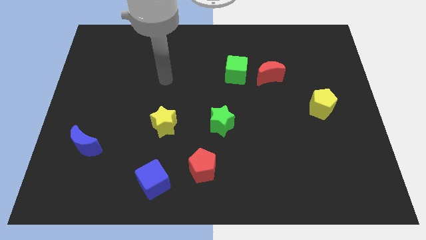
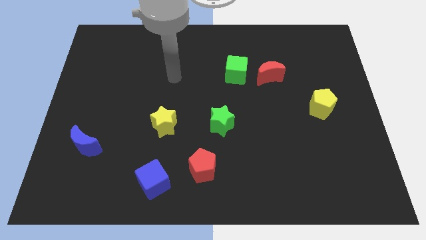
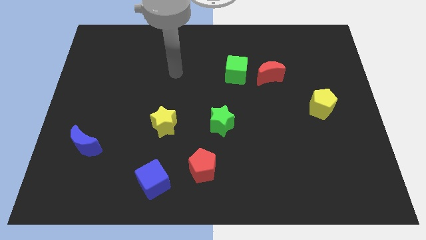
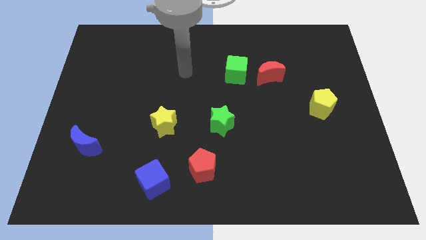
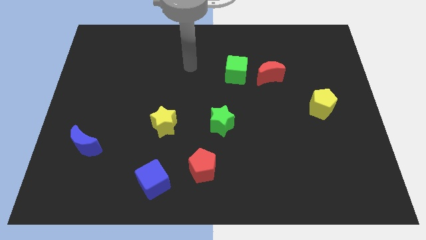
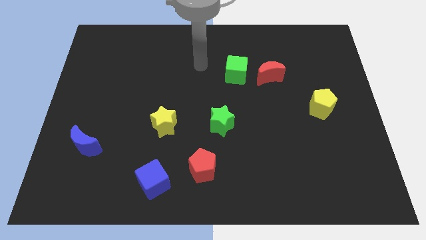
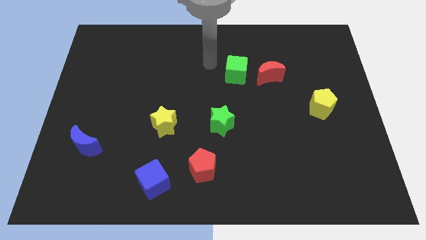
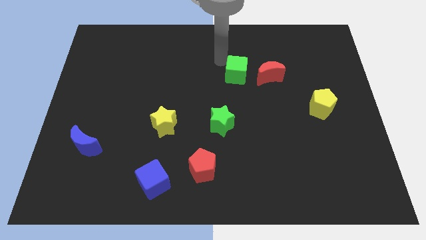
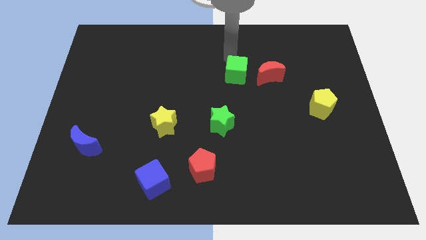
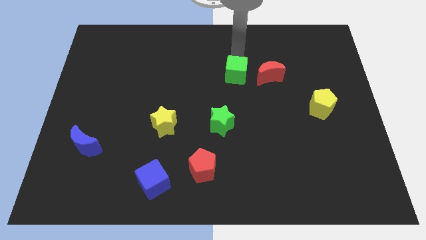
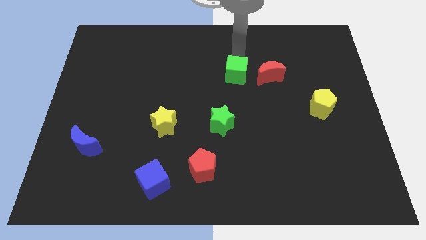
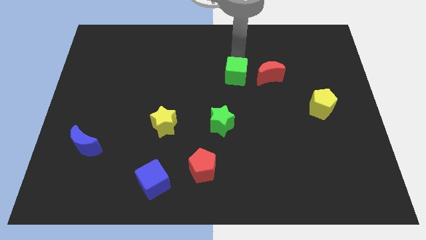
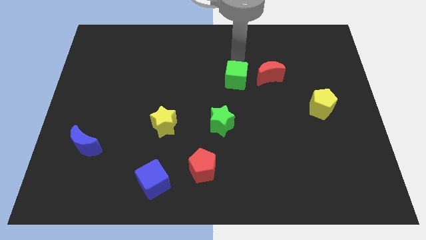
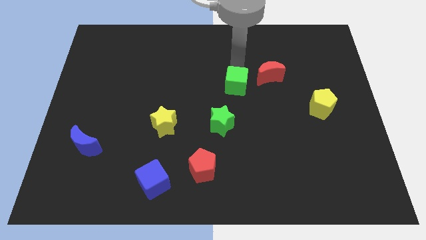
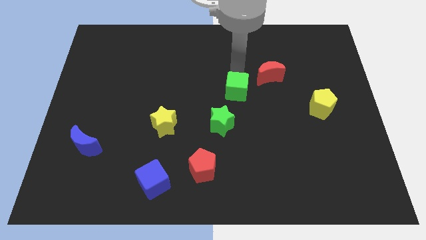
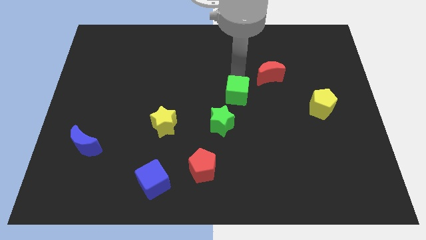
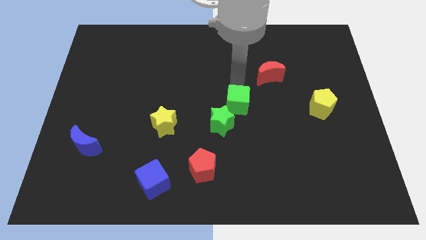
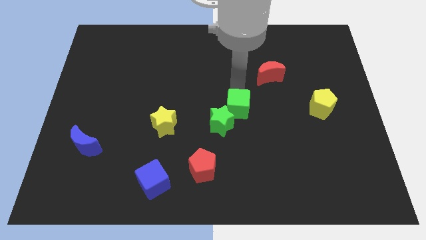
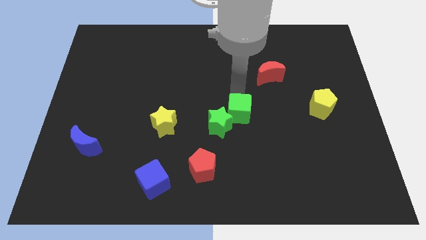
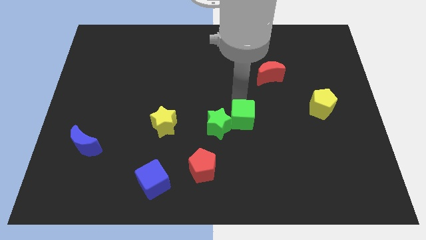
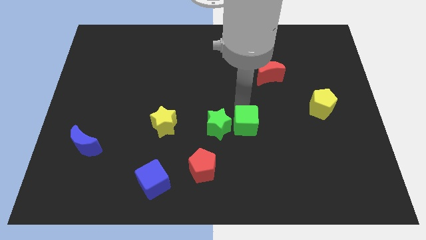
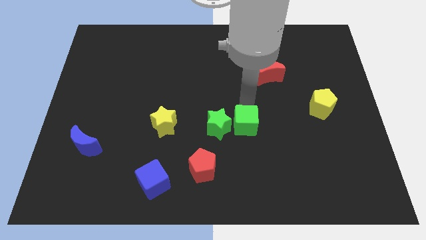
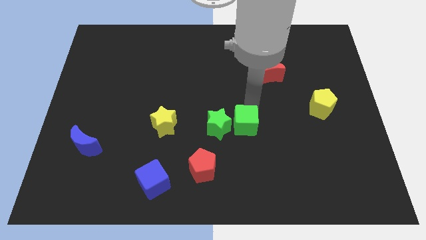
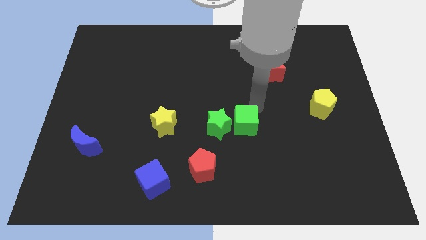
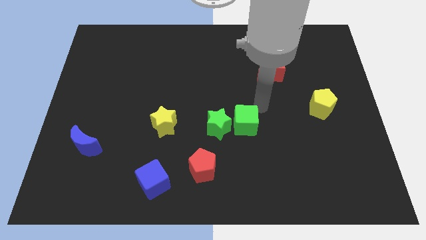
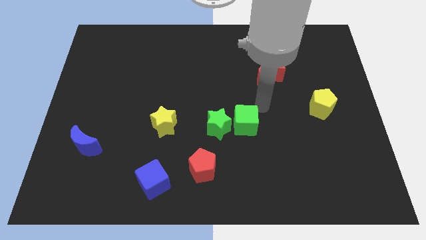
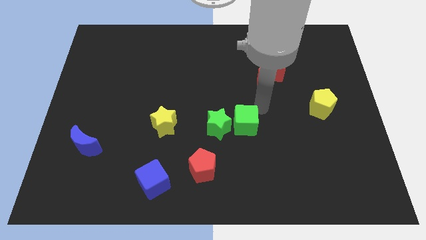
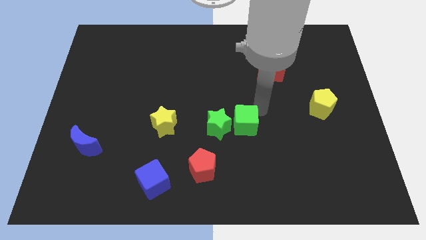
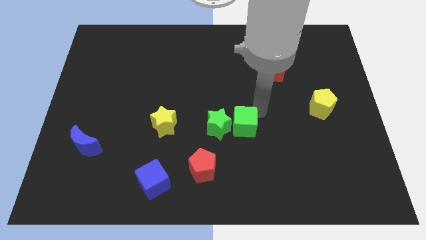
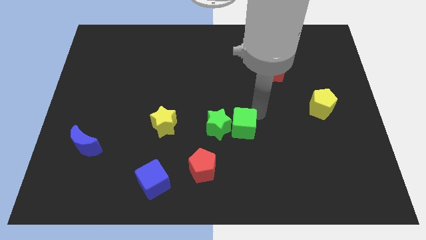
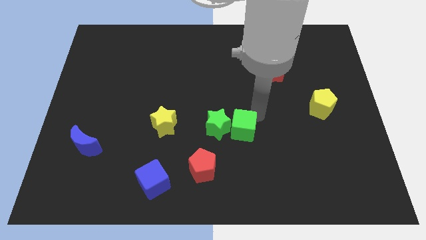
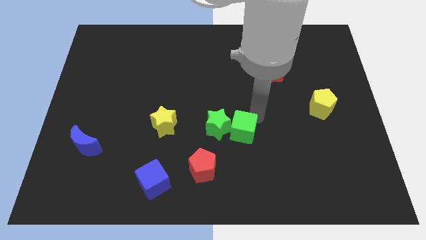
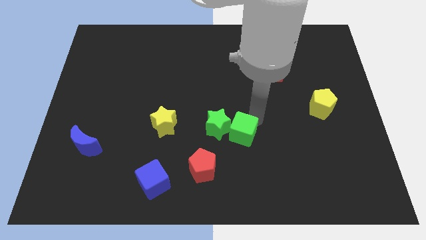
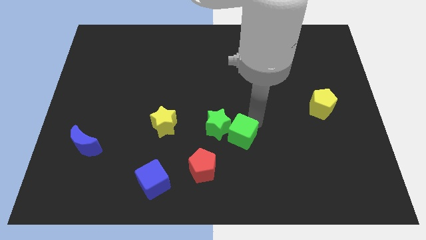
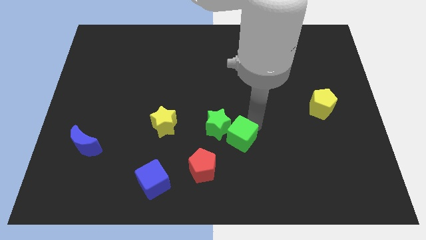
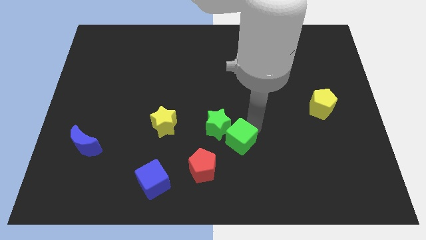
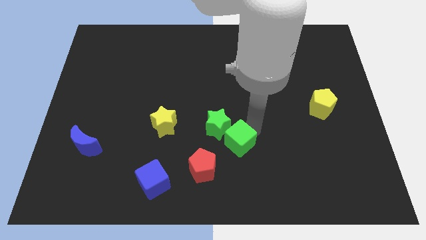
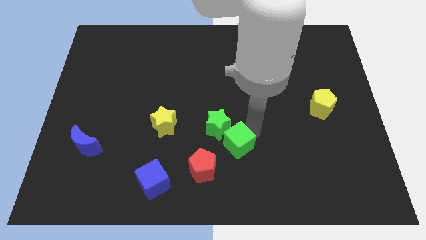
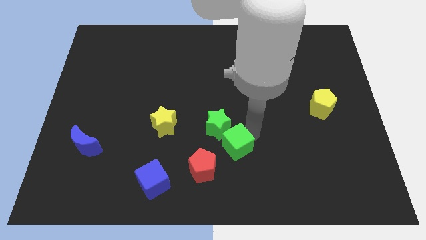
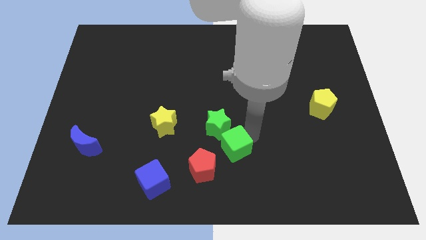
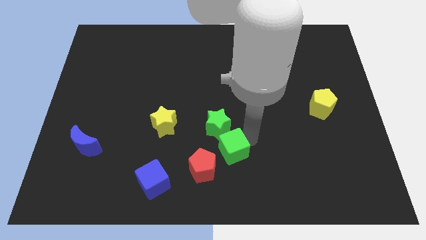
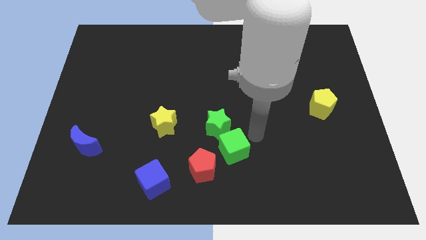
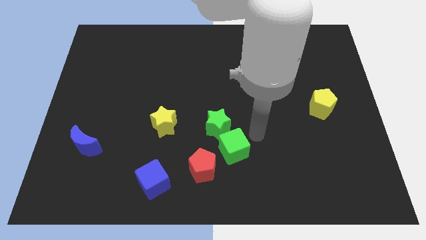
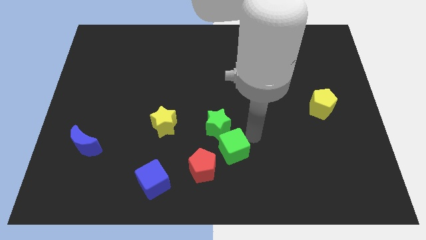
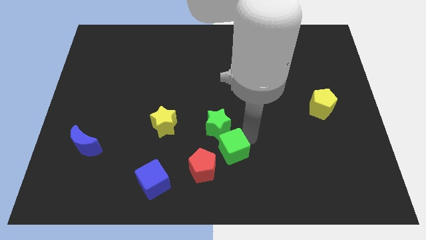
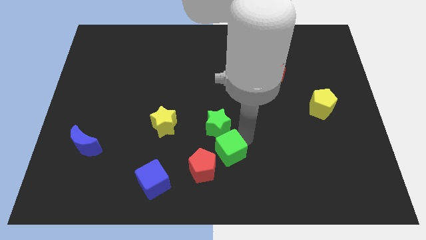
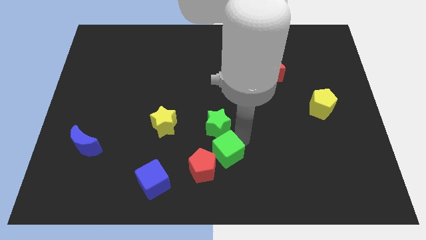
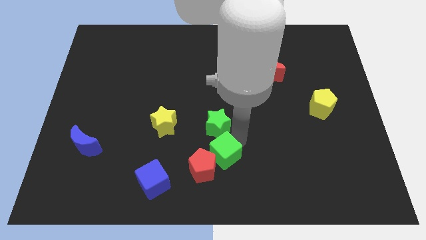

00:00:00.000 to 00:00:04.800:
slide the green cube towards the red pentagon

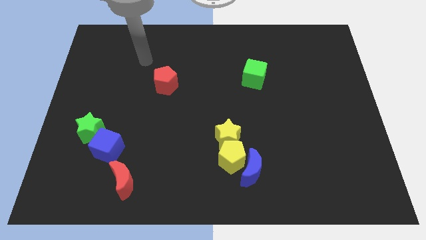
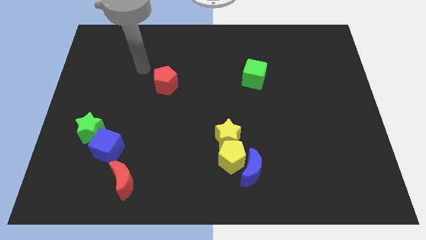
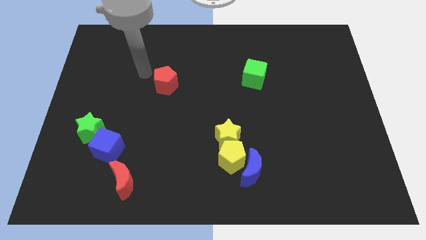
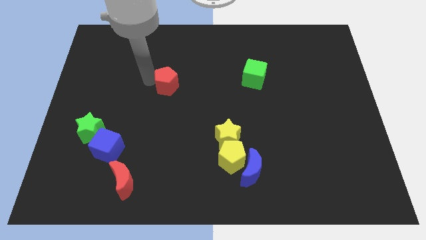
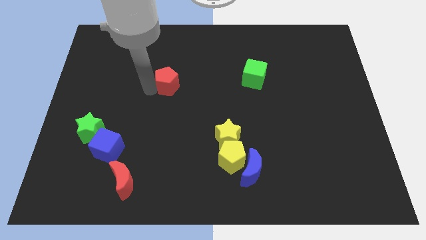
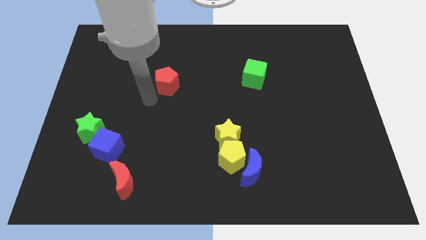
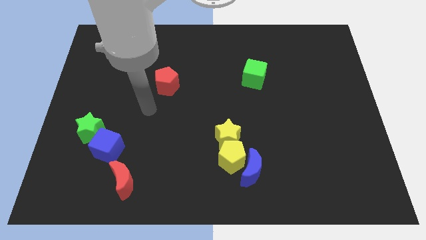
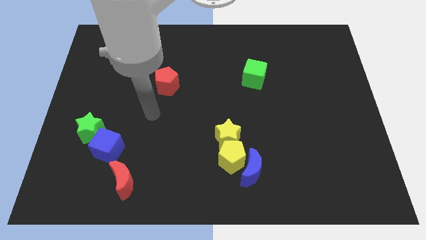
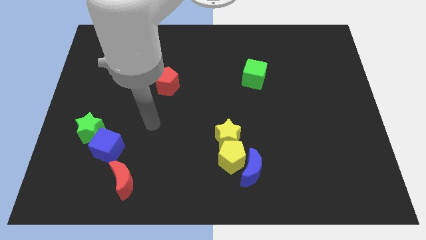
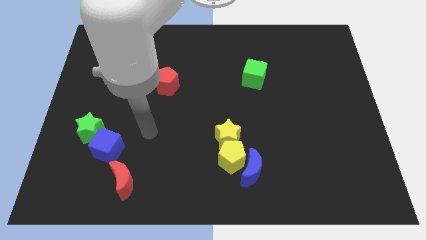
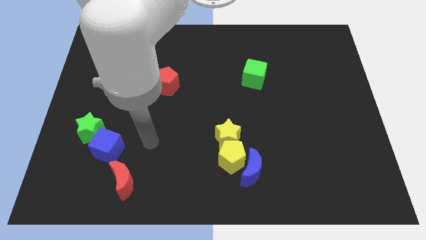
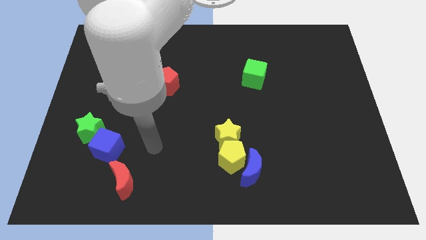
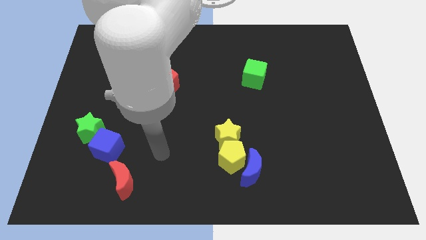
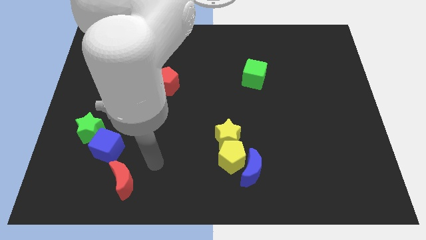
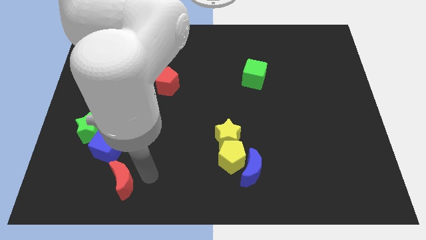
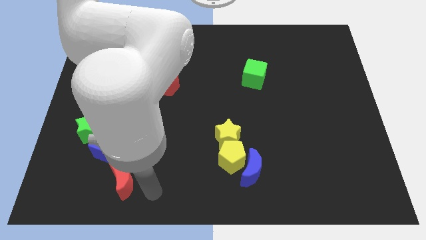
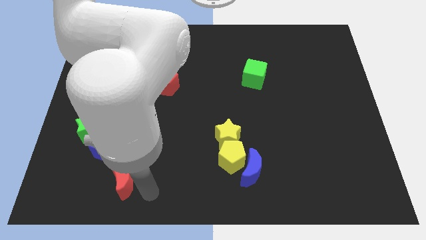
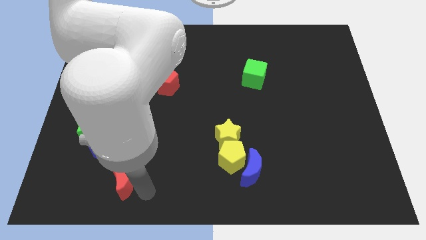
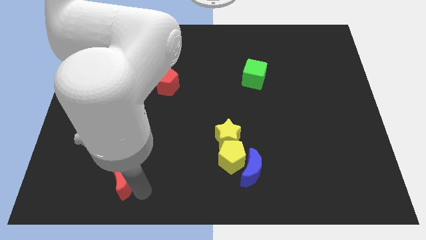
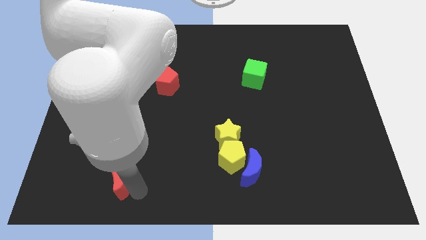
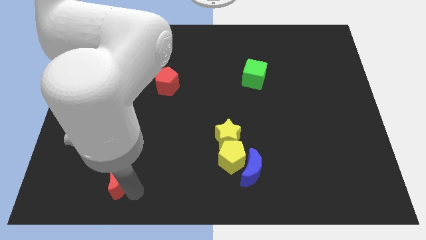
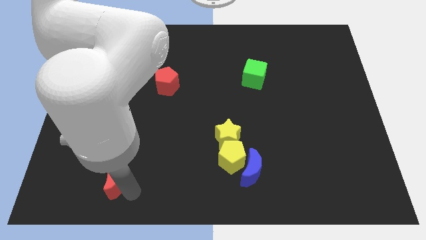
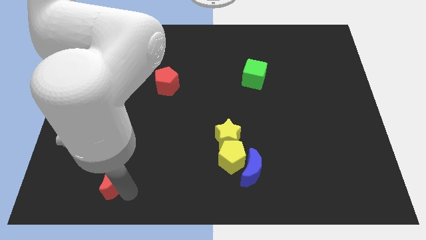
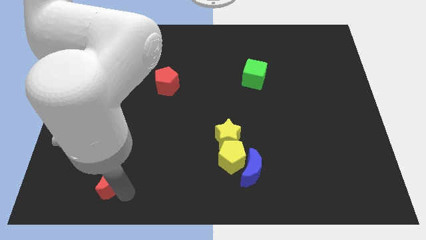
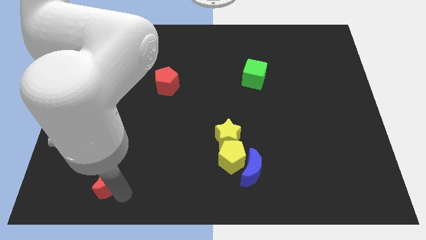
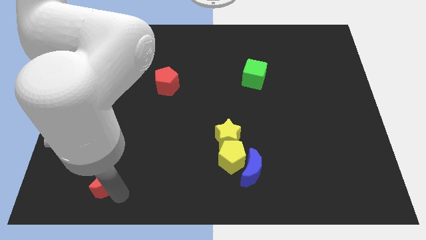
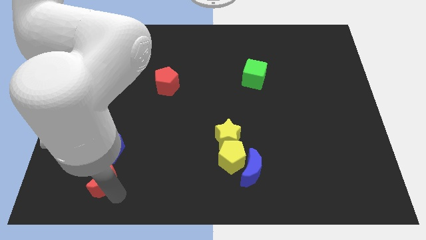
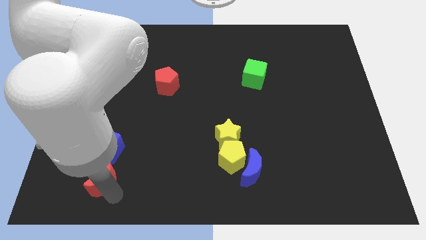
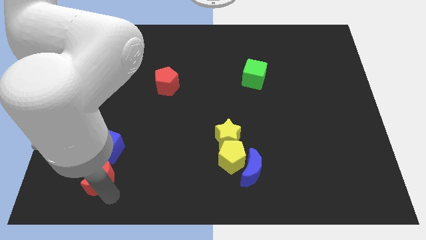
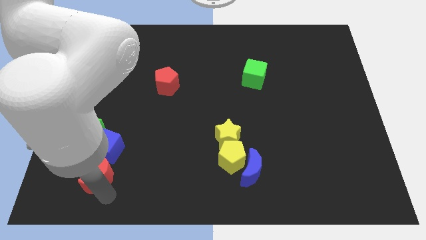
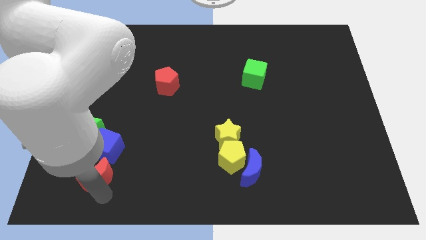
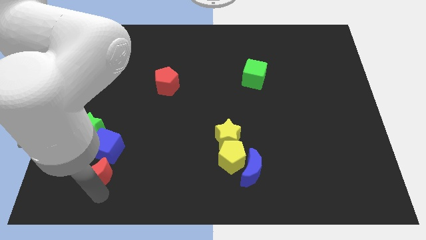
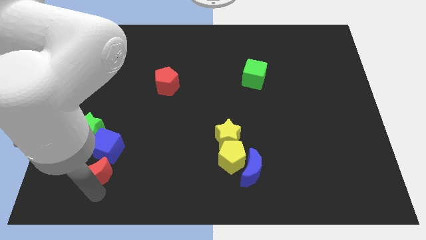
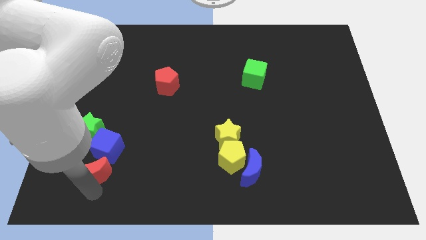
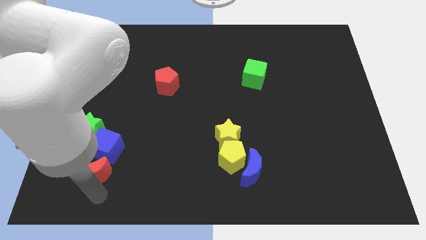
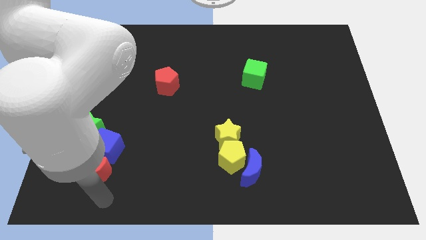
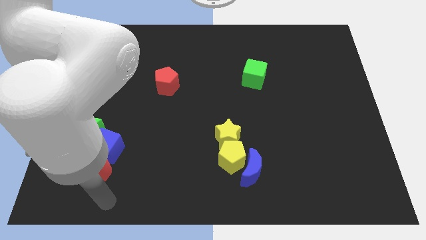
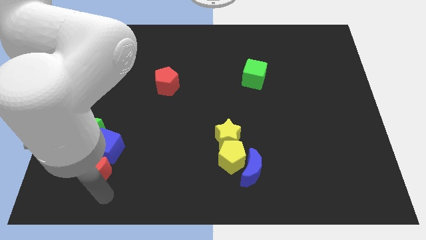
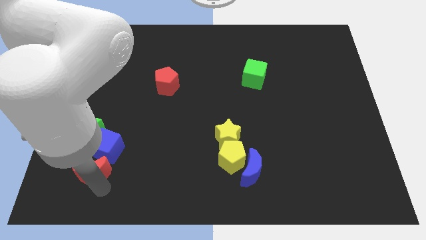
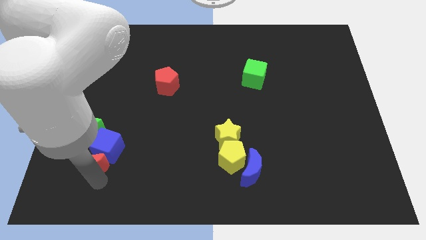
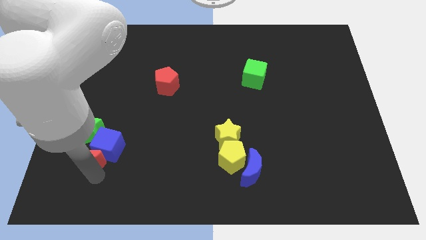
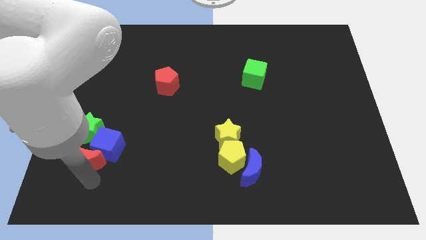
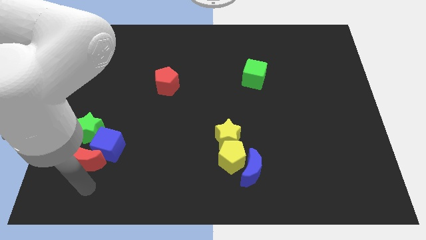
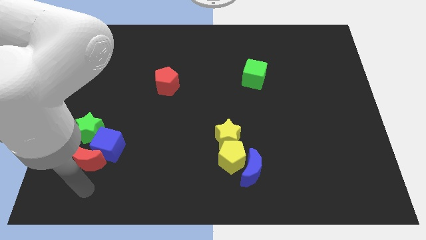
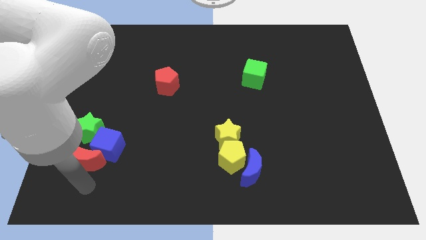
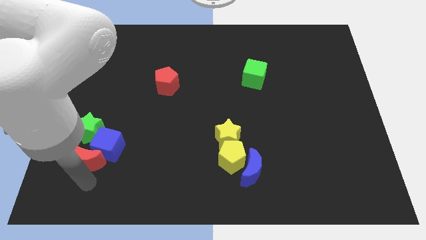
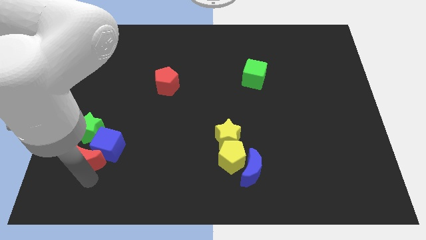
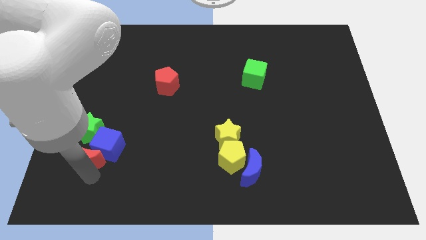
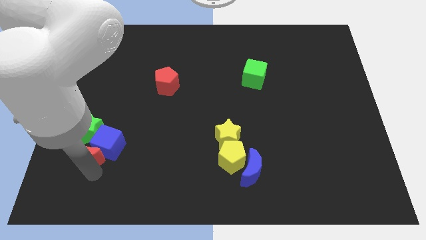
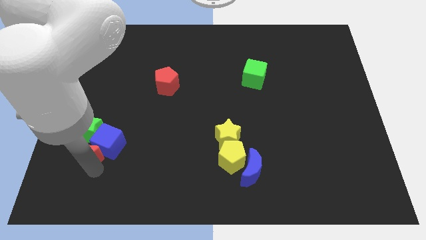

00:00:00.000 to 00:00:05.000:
push the red moon to the green star
